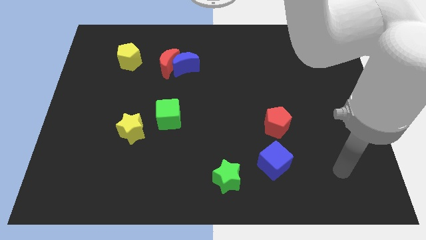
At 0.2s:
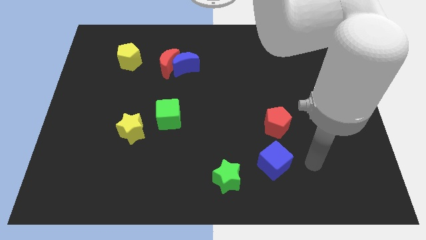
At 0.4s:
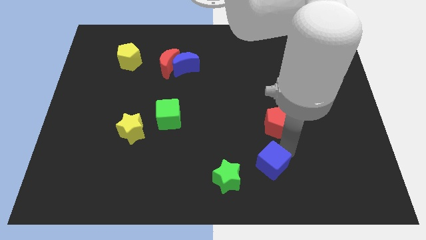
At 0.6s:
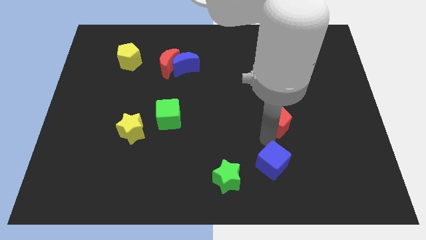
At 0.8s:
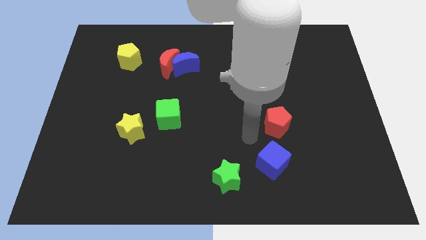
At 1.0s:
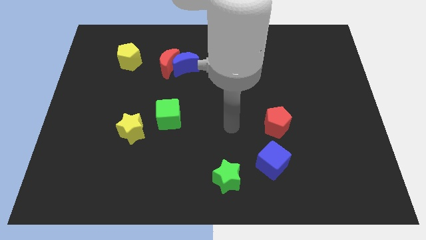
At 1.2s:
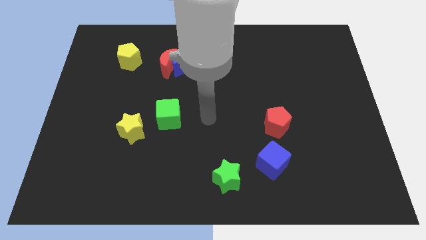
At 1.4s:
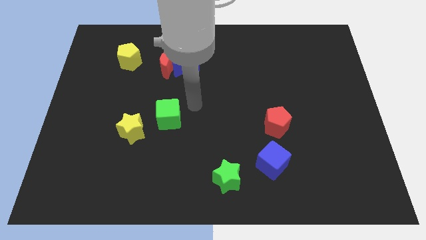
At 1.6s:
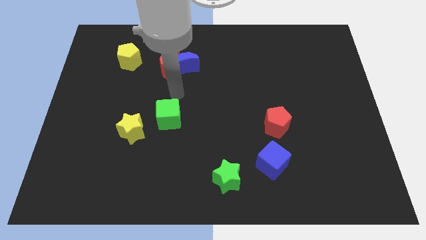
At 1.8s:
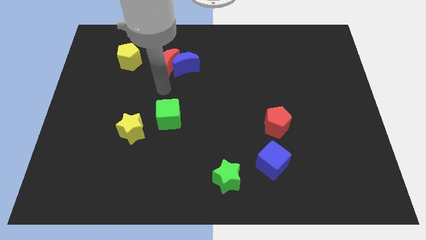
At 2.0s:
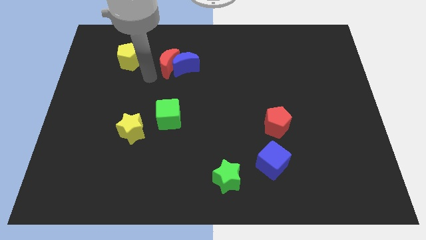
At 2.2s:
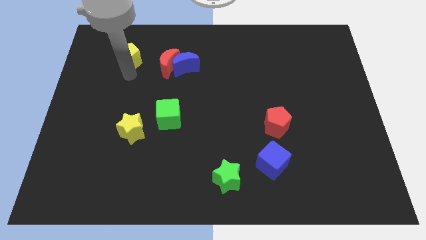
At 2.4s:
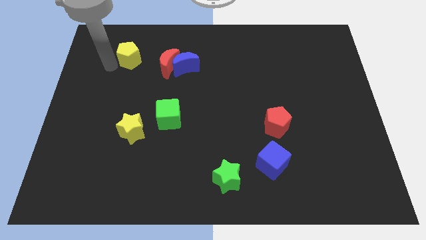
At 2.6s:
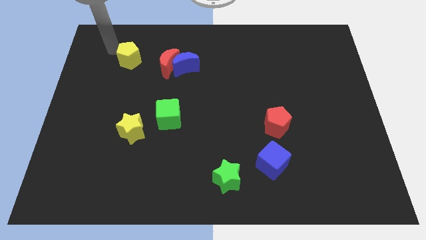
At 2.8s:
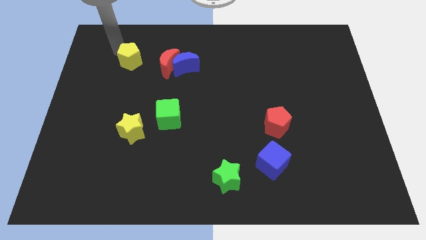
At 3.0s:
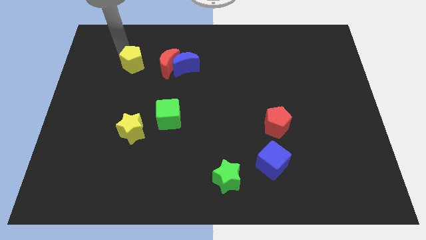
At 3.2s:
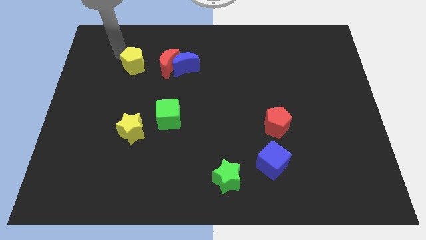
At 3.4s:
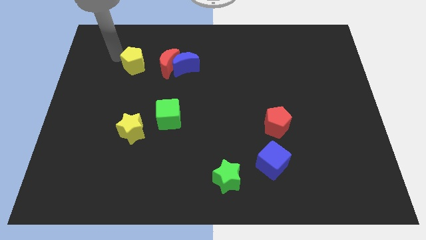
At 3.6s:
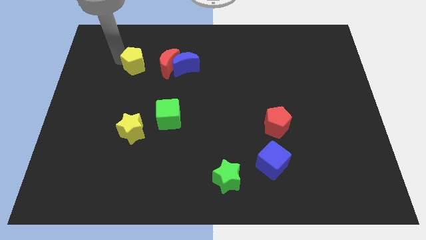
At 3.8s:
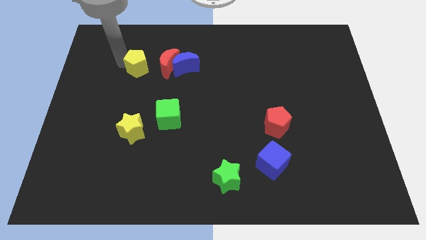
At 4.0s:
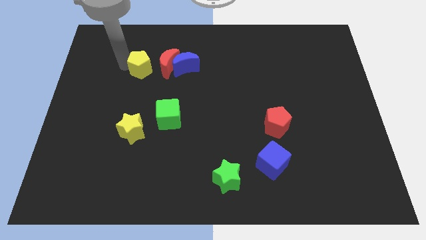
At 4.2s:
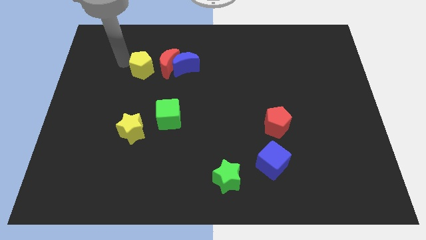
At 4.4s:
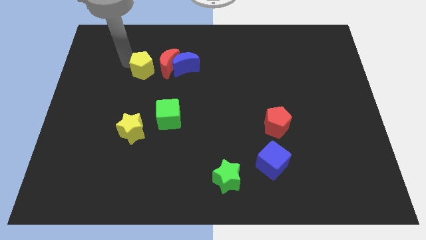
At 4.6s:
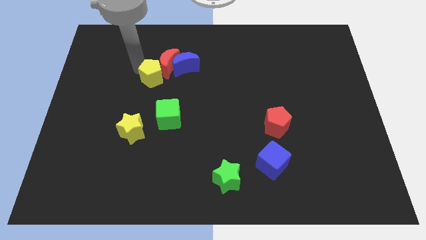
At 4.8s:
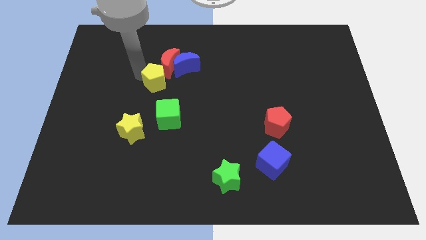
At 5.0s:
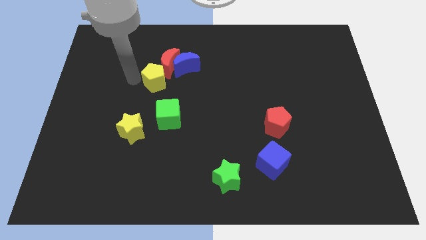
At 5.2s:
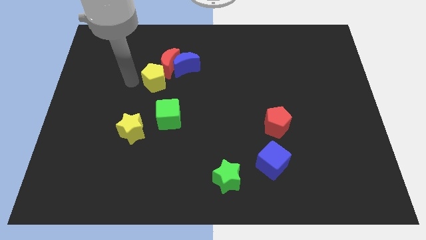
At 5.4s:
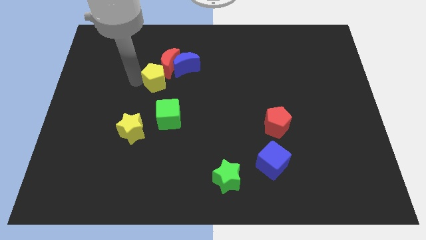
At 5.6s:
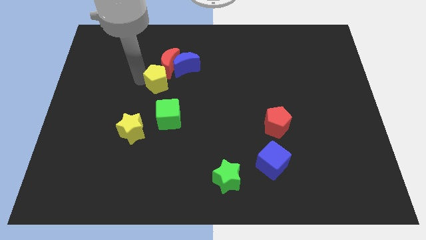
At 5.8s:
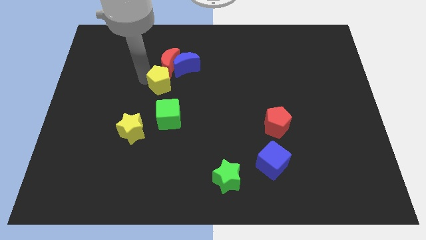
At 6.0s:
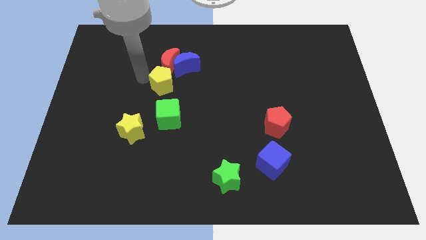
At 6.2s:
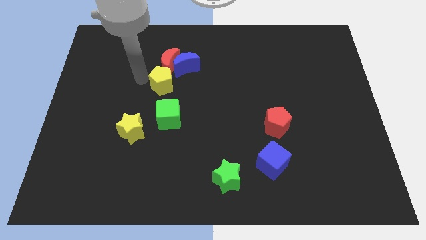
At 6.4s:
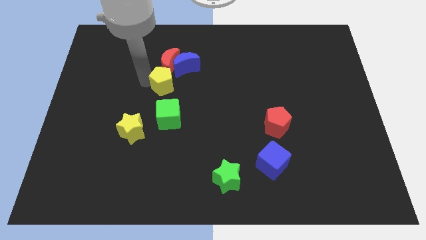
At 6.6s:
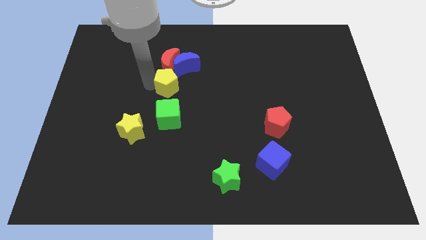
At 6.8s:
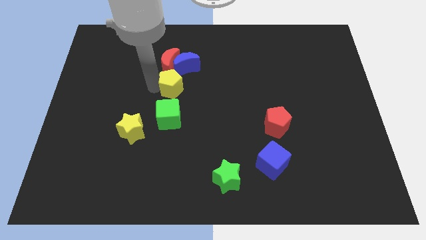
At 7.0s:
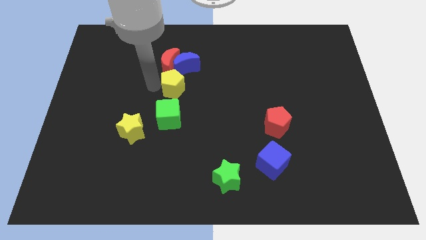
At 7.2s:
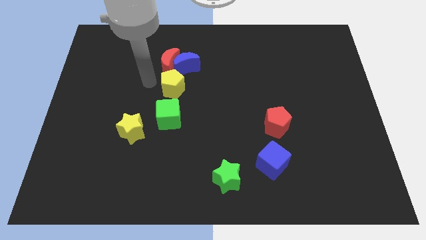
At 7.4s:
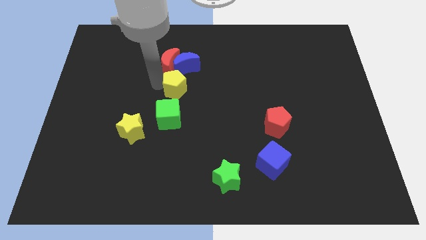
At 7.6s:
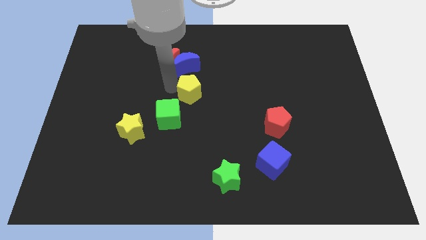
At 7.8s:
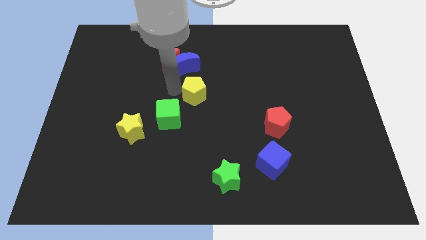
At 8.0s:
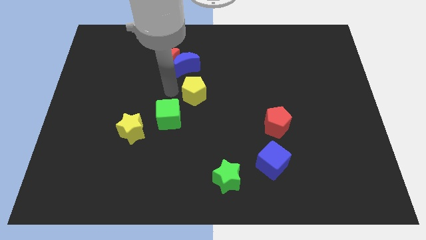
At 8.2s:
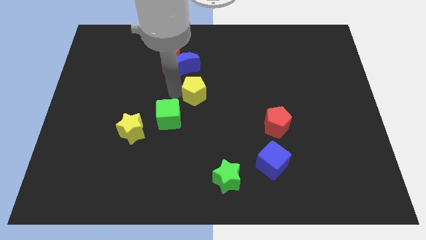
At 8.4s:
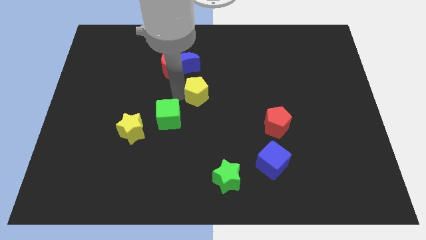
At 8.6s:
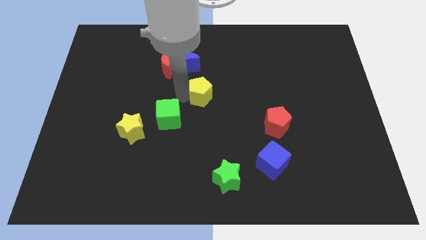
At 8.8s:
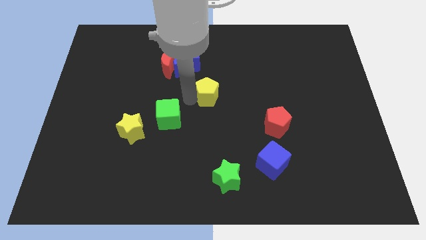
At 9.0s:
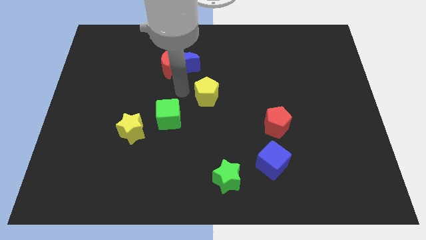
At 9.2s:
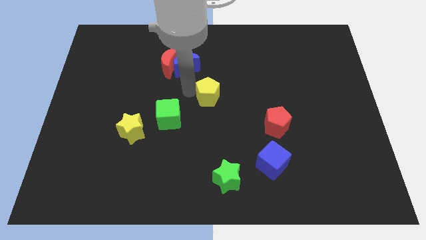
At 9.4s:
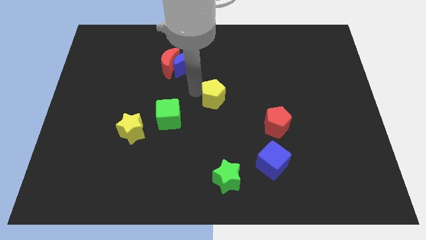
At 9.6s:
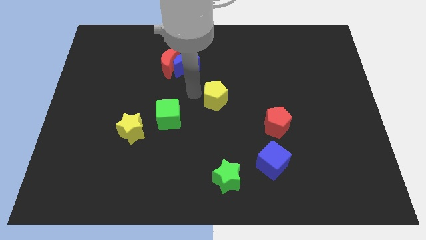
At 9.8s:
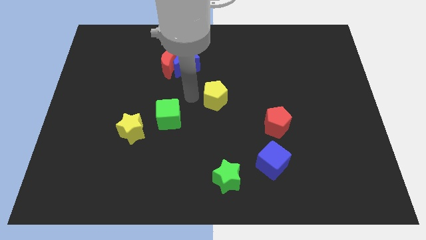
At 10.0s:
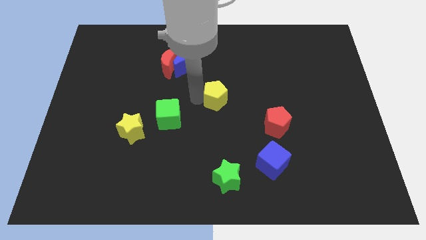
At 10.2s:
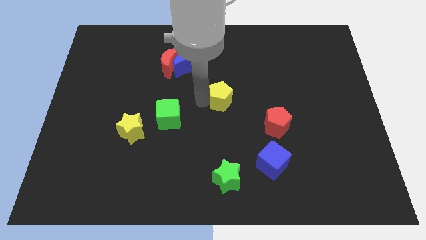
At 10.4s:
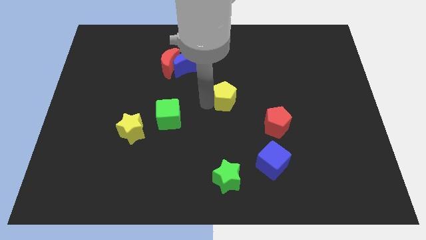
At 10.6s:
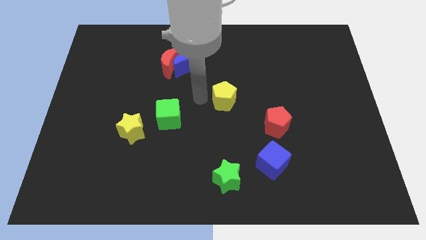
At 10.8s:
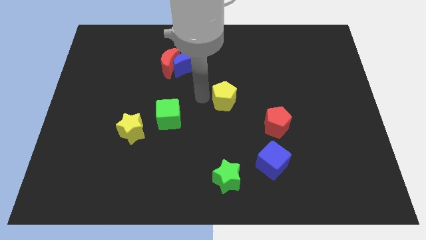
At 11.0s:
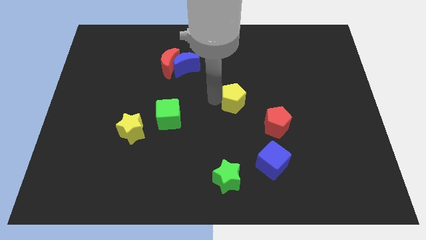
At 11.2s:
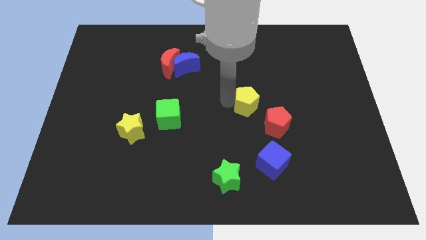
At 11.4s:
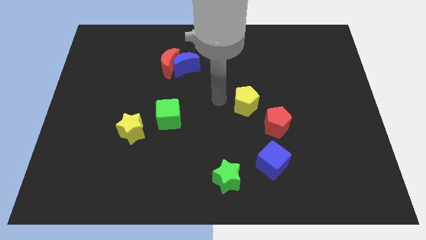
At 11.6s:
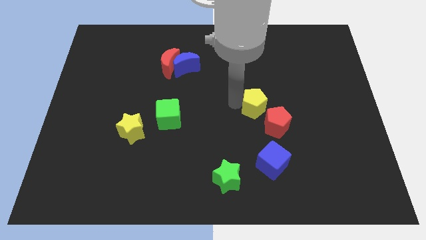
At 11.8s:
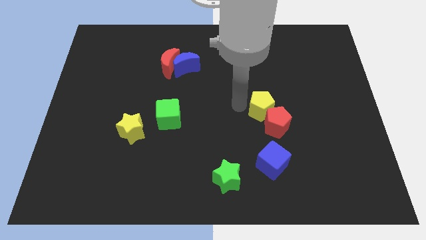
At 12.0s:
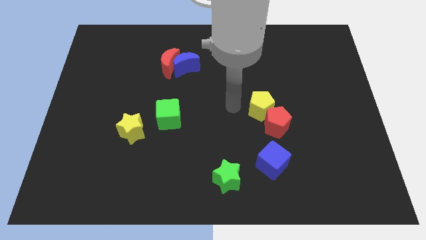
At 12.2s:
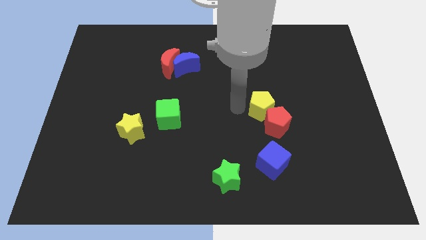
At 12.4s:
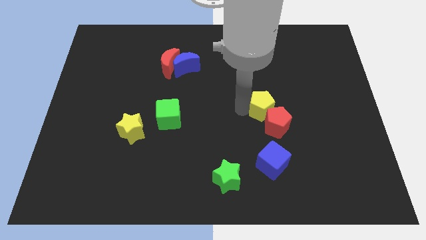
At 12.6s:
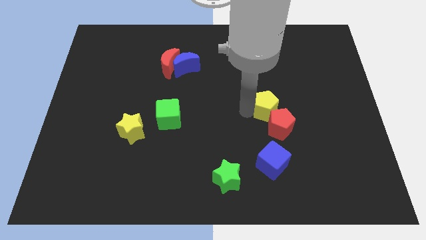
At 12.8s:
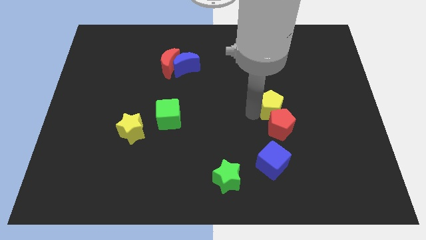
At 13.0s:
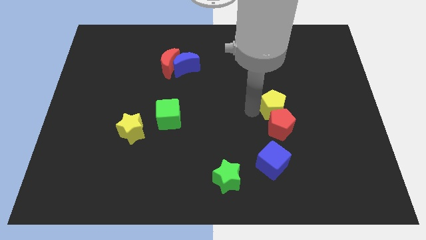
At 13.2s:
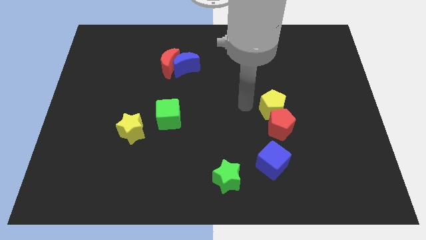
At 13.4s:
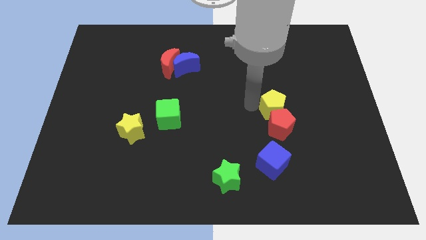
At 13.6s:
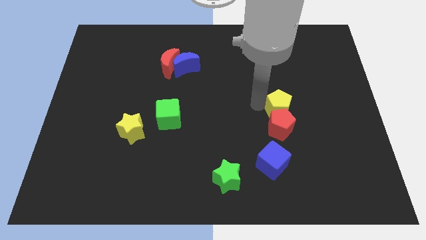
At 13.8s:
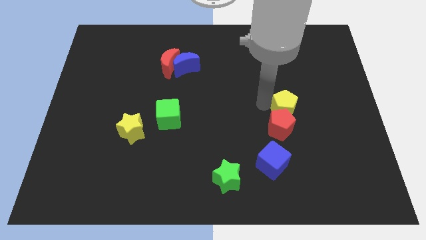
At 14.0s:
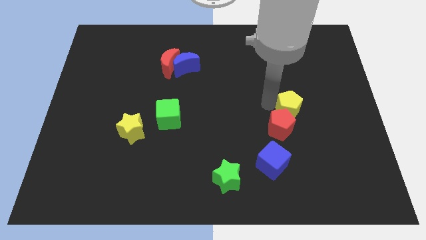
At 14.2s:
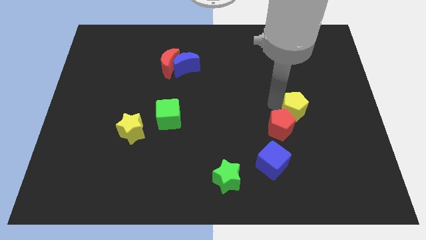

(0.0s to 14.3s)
move the yellow pentagon to the right side of the red pentagon

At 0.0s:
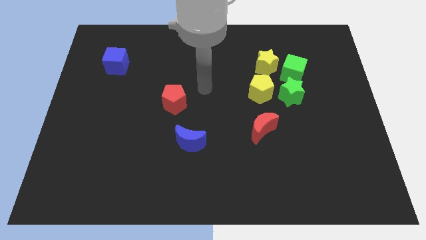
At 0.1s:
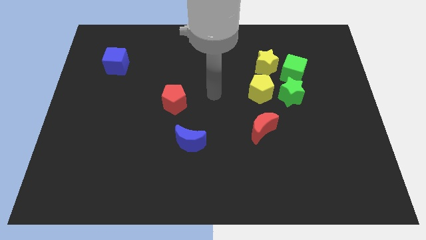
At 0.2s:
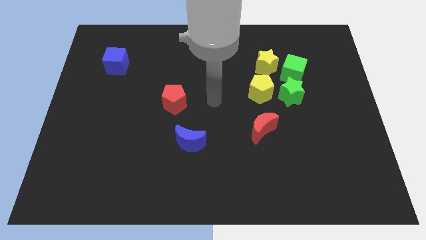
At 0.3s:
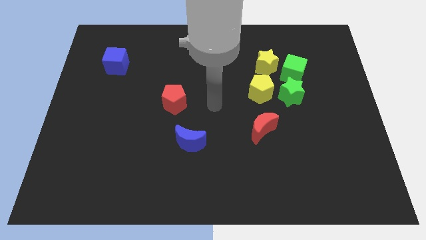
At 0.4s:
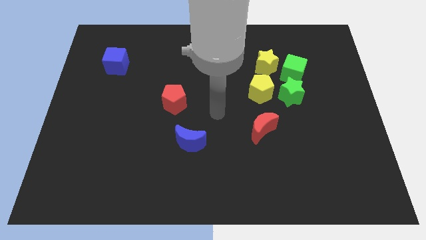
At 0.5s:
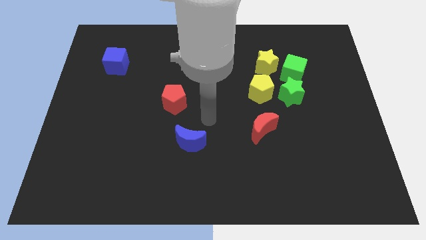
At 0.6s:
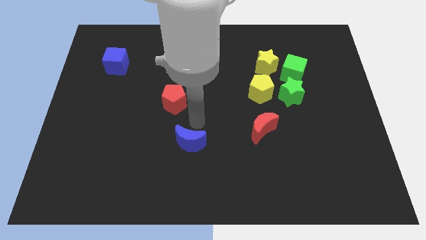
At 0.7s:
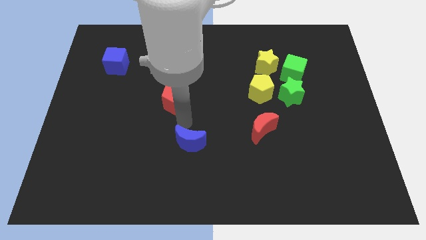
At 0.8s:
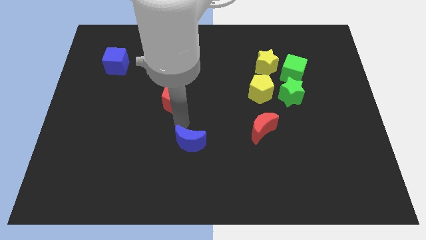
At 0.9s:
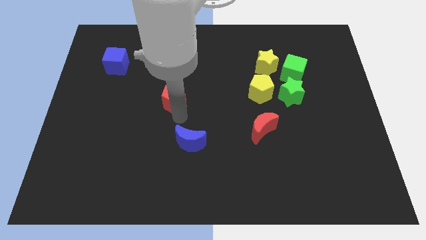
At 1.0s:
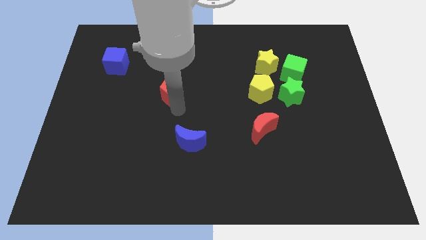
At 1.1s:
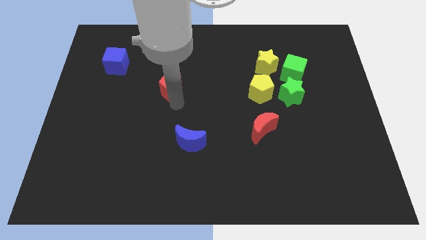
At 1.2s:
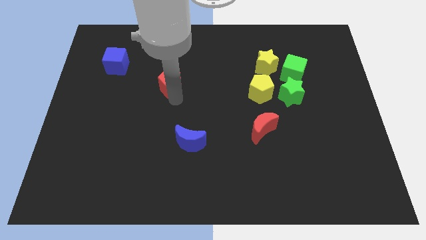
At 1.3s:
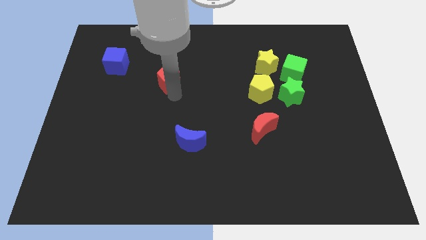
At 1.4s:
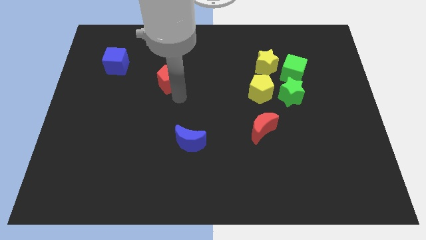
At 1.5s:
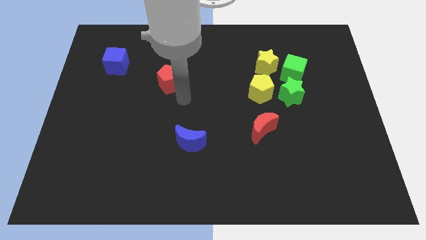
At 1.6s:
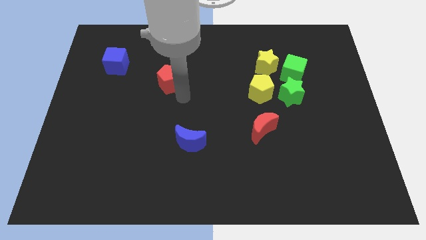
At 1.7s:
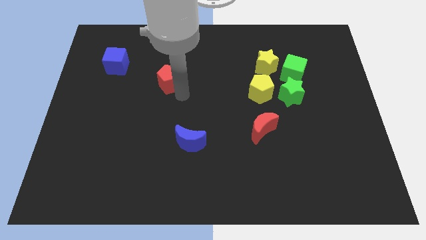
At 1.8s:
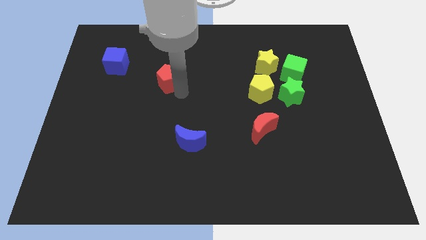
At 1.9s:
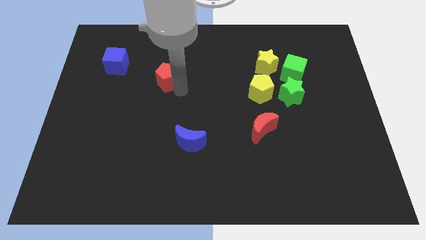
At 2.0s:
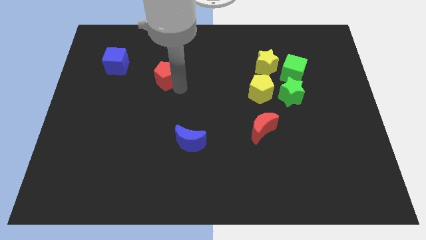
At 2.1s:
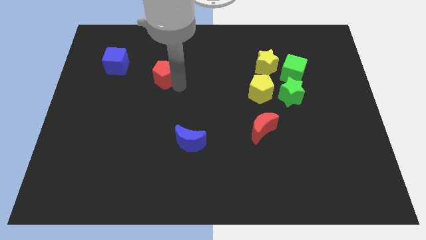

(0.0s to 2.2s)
push the red pentagon to the right side of the blue cube
